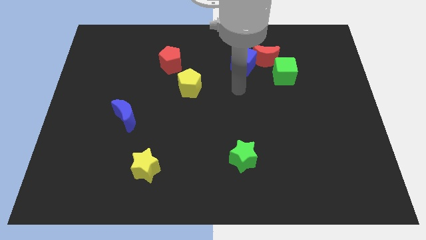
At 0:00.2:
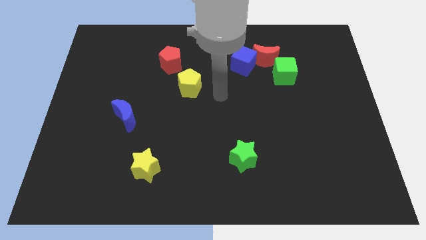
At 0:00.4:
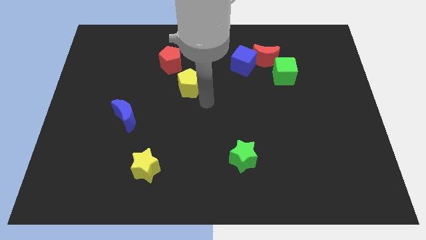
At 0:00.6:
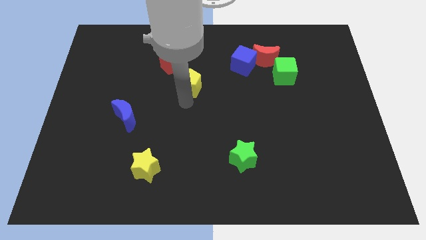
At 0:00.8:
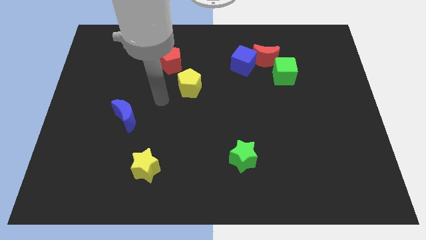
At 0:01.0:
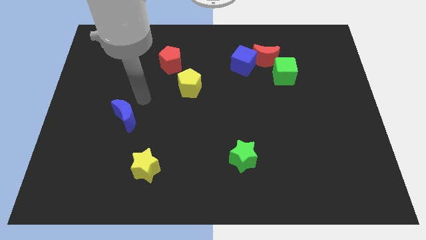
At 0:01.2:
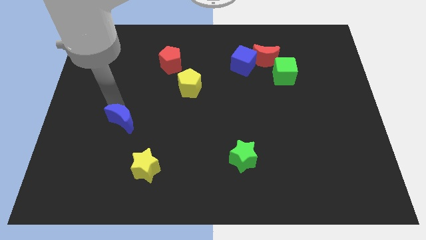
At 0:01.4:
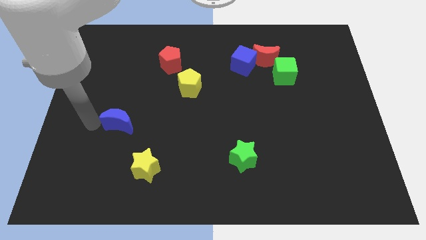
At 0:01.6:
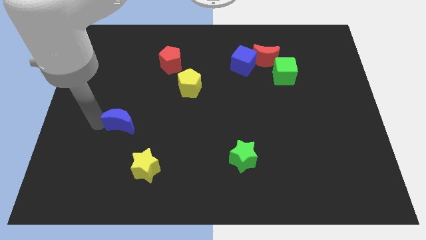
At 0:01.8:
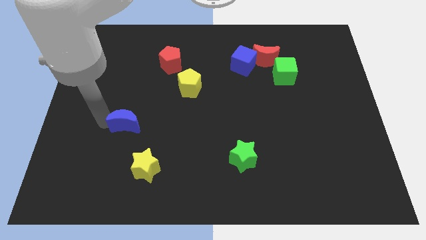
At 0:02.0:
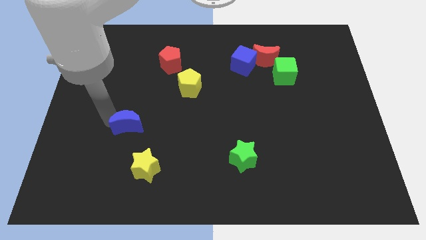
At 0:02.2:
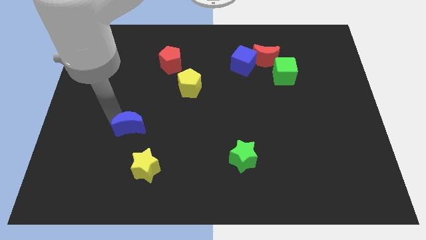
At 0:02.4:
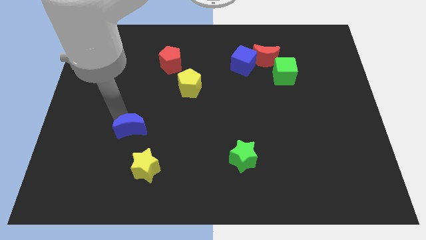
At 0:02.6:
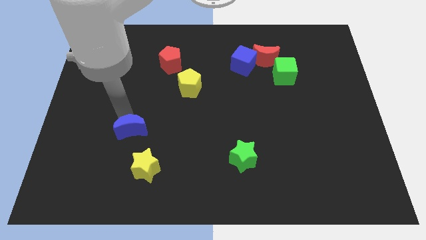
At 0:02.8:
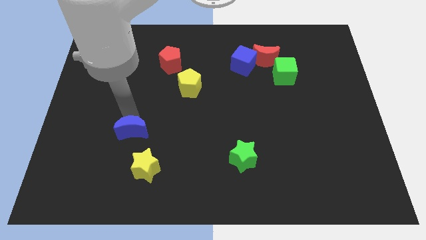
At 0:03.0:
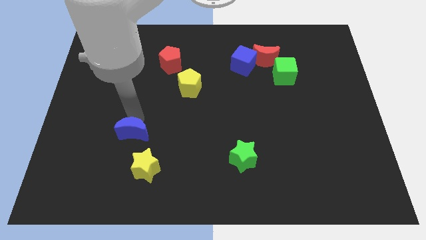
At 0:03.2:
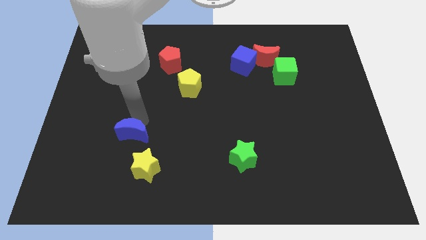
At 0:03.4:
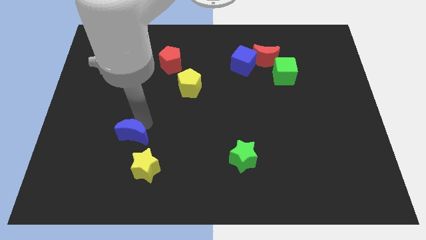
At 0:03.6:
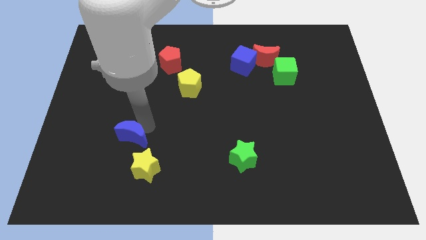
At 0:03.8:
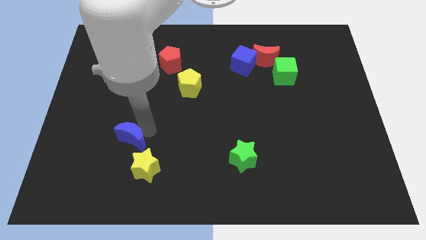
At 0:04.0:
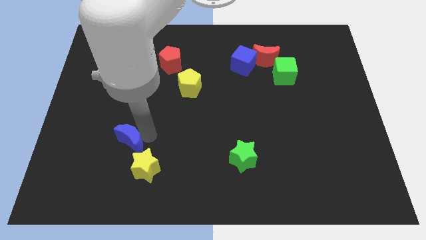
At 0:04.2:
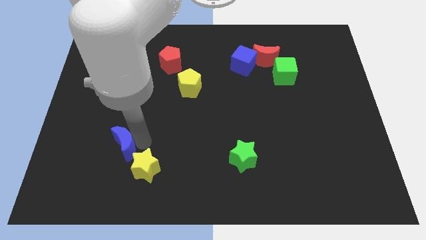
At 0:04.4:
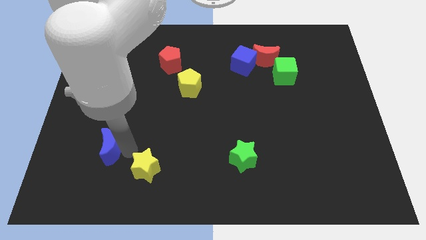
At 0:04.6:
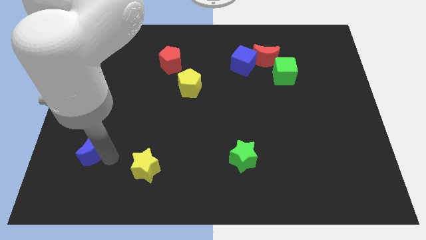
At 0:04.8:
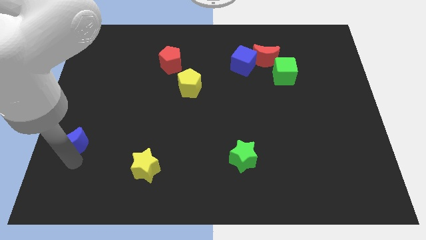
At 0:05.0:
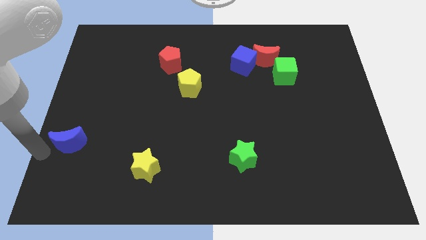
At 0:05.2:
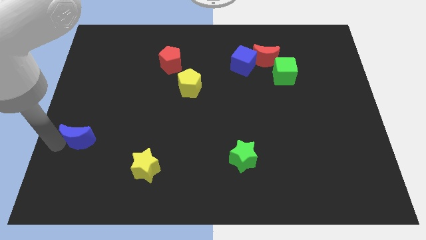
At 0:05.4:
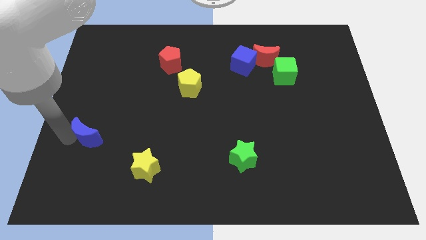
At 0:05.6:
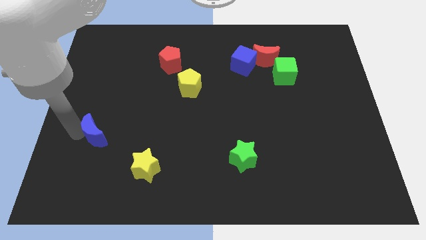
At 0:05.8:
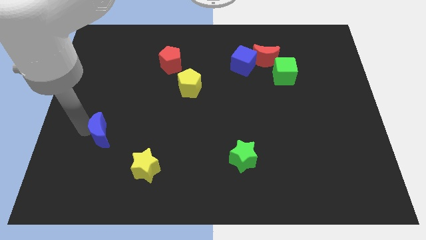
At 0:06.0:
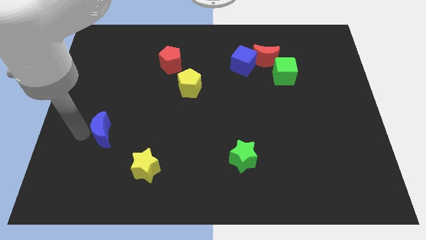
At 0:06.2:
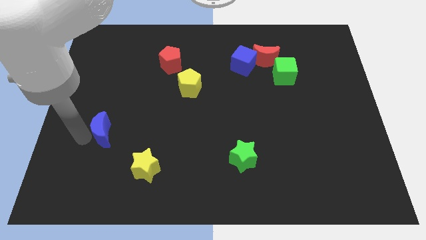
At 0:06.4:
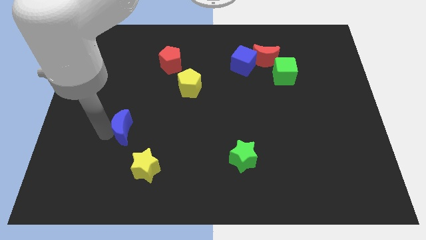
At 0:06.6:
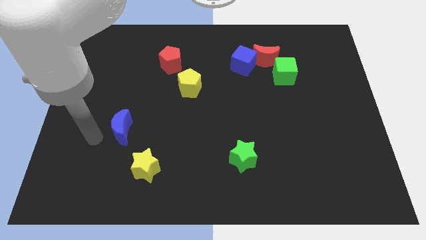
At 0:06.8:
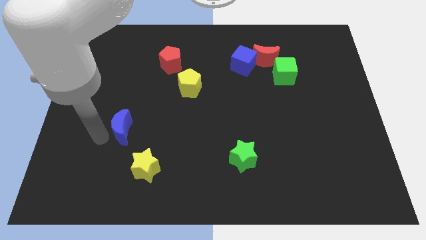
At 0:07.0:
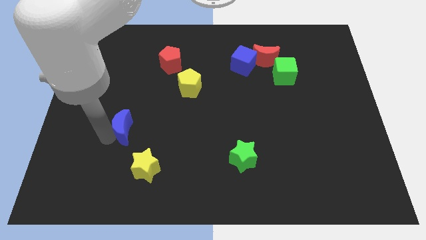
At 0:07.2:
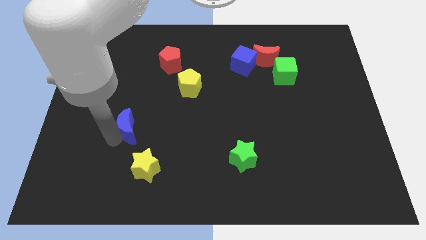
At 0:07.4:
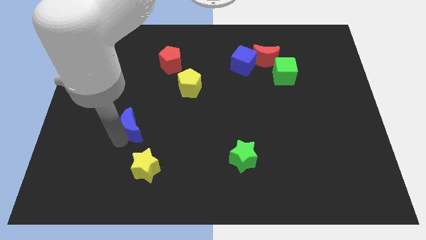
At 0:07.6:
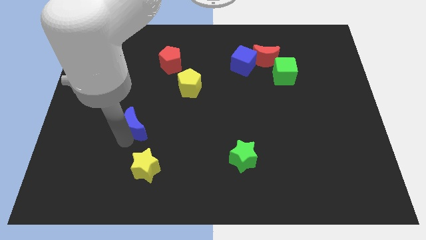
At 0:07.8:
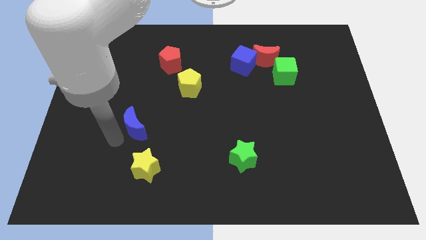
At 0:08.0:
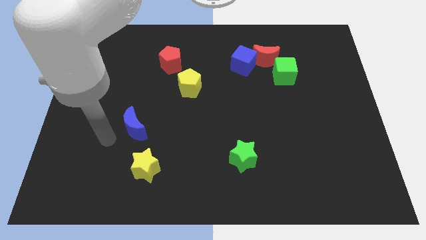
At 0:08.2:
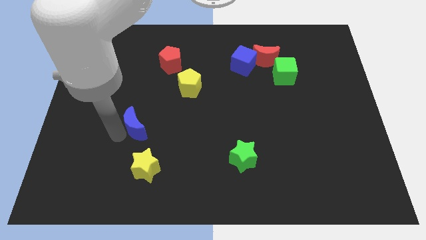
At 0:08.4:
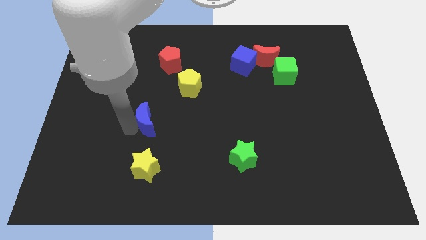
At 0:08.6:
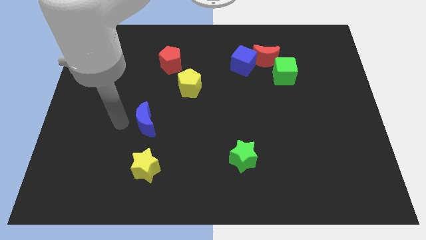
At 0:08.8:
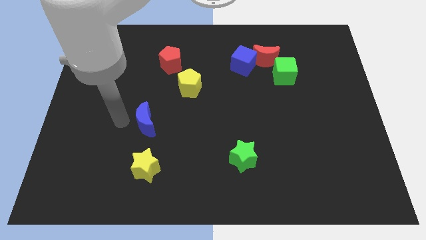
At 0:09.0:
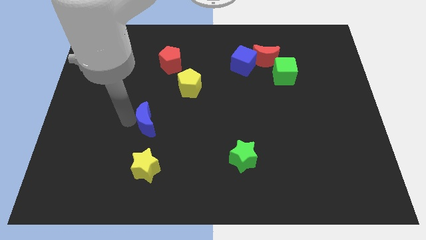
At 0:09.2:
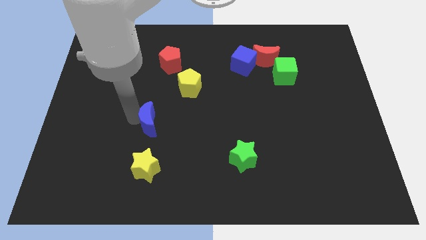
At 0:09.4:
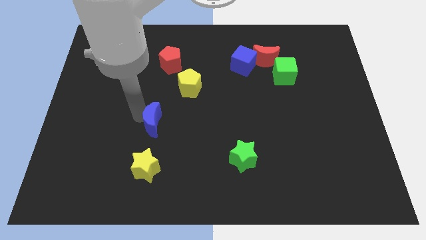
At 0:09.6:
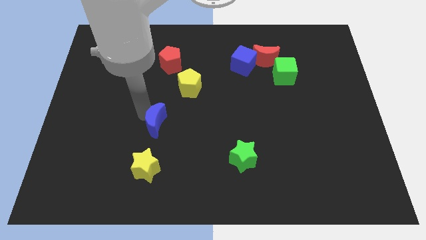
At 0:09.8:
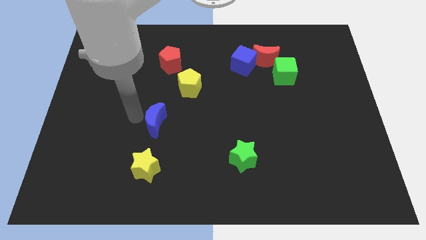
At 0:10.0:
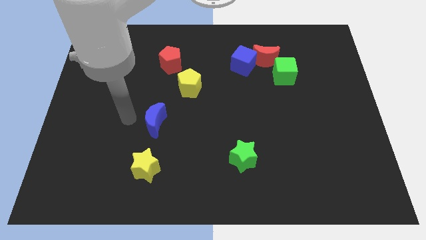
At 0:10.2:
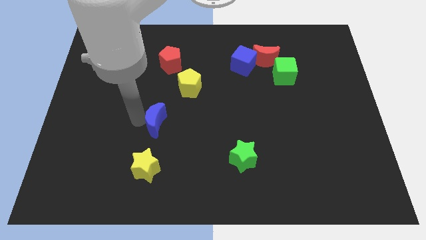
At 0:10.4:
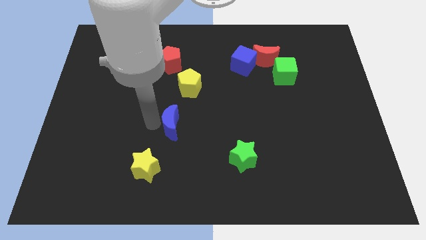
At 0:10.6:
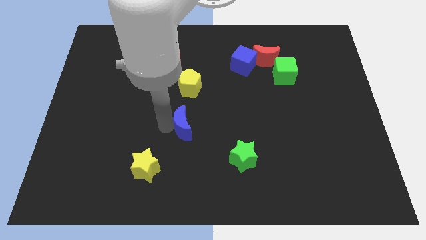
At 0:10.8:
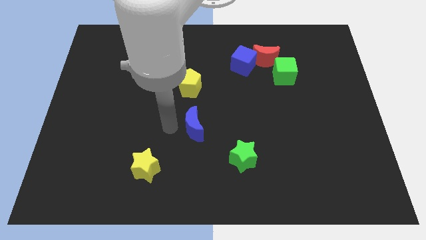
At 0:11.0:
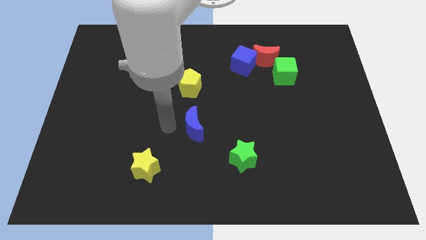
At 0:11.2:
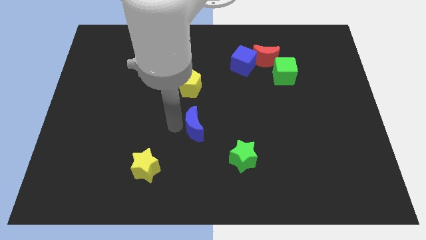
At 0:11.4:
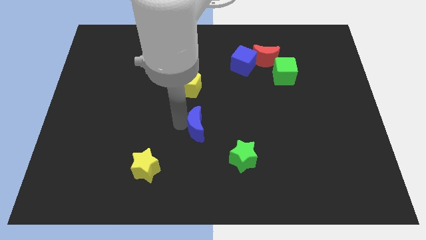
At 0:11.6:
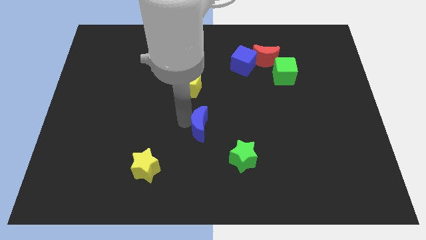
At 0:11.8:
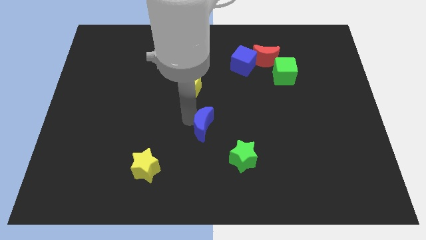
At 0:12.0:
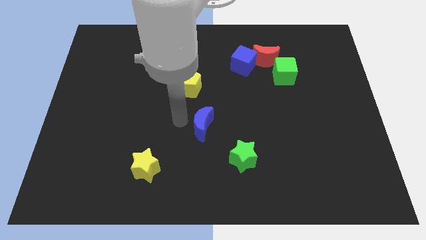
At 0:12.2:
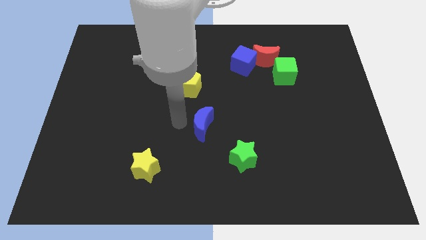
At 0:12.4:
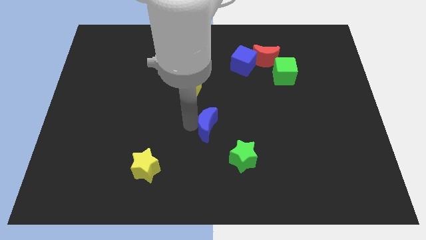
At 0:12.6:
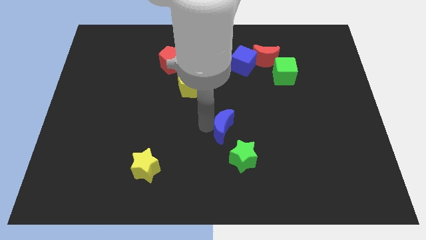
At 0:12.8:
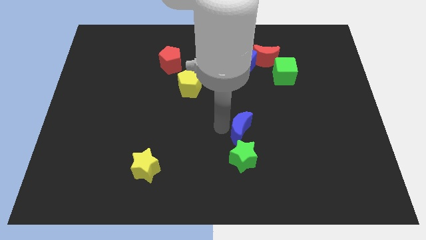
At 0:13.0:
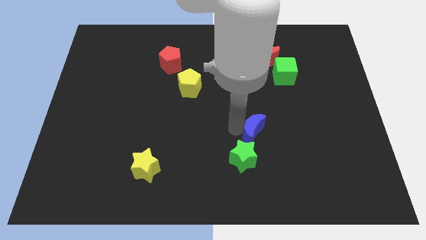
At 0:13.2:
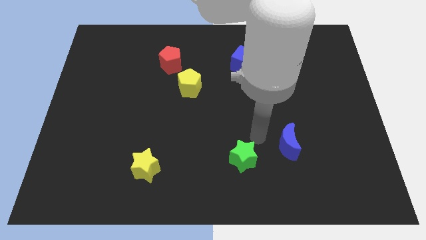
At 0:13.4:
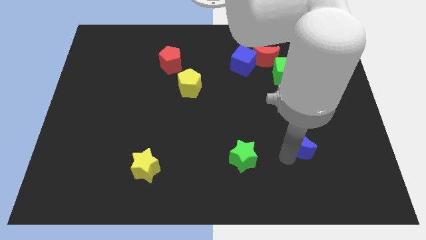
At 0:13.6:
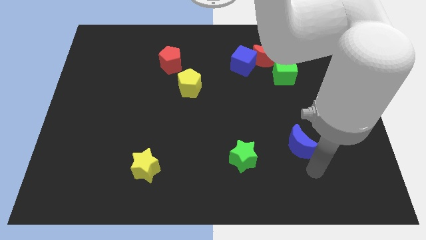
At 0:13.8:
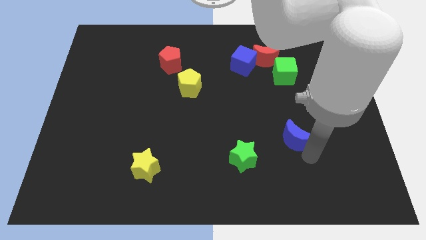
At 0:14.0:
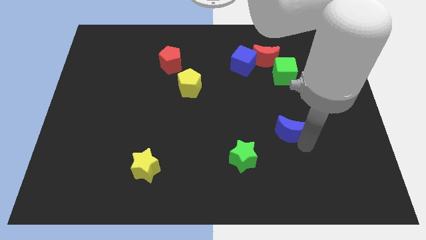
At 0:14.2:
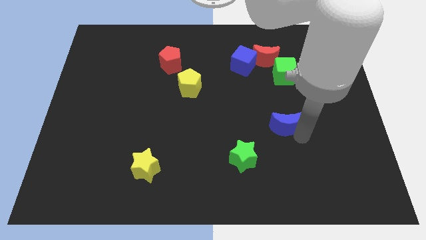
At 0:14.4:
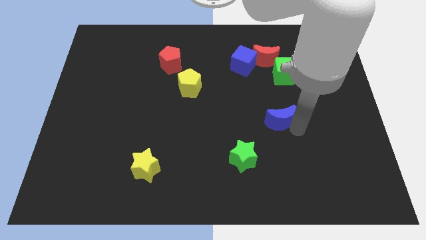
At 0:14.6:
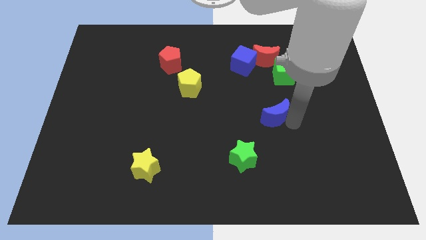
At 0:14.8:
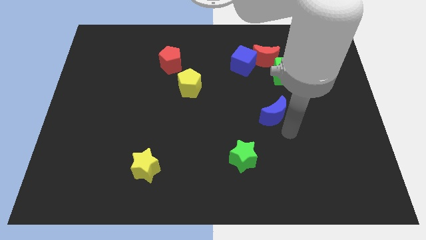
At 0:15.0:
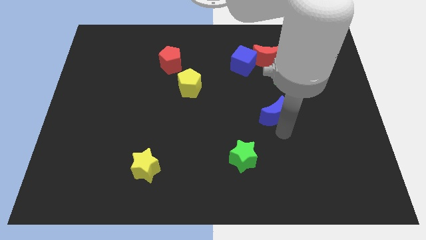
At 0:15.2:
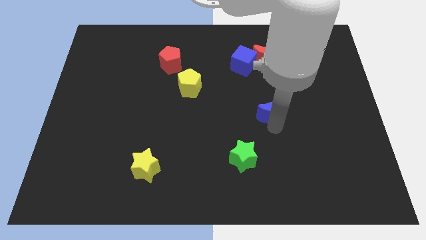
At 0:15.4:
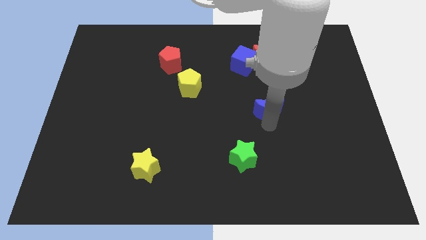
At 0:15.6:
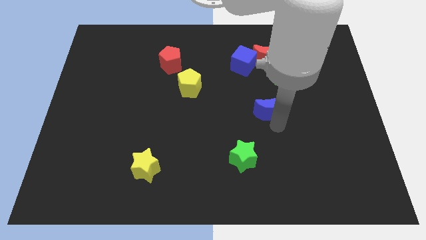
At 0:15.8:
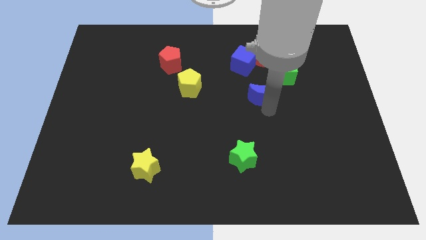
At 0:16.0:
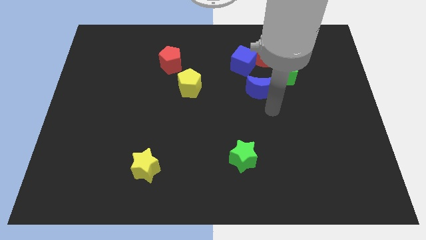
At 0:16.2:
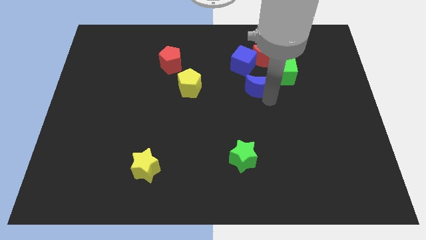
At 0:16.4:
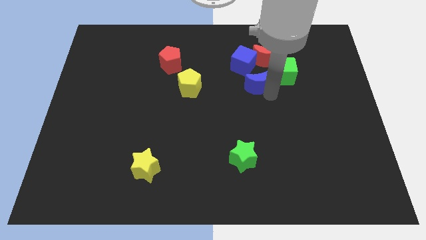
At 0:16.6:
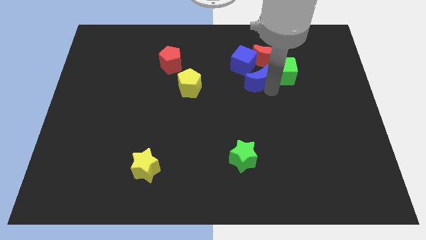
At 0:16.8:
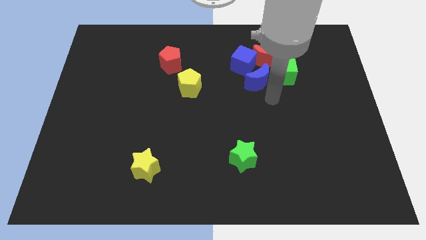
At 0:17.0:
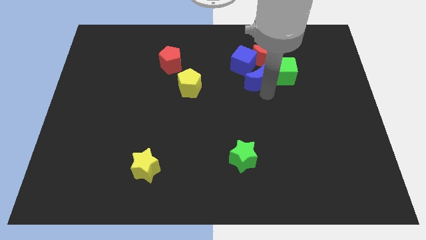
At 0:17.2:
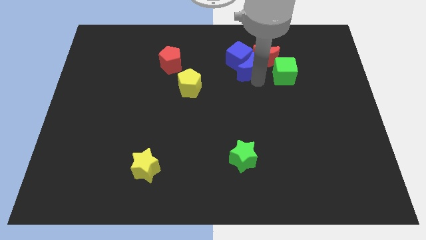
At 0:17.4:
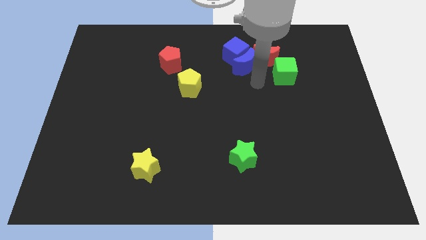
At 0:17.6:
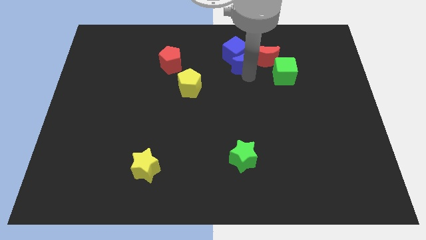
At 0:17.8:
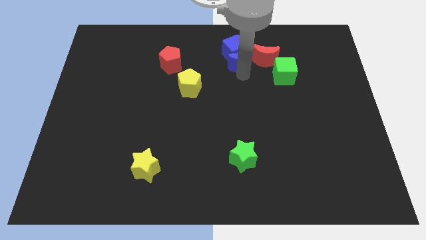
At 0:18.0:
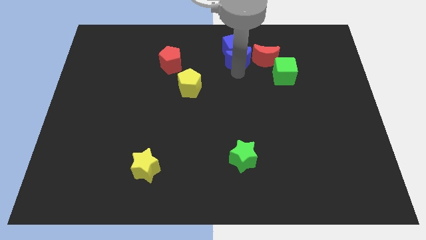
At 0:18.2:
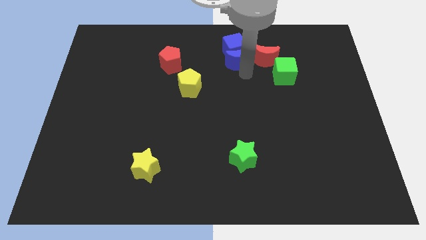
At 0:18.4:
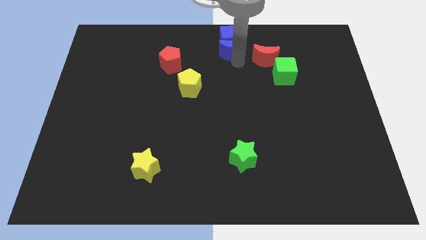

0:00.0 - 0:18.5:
push the blue moon to the towards your base
